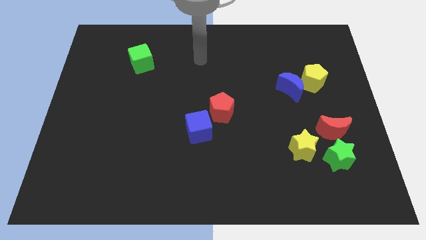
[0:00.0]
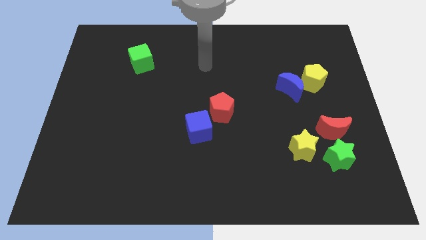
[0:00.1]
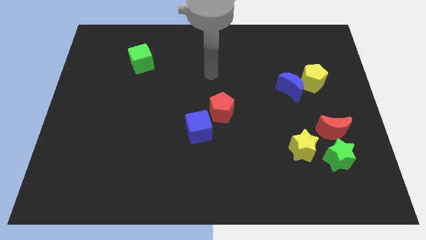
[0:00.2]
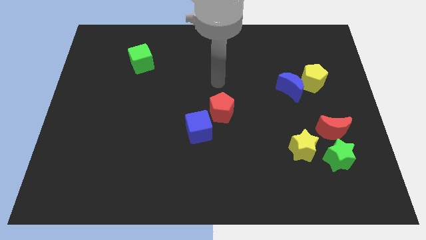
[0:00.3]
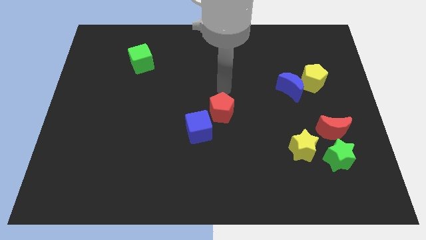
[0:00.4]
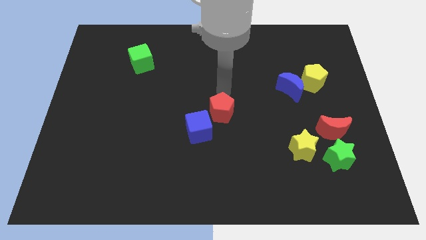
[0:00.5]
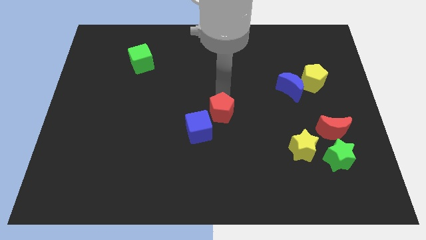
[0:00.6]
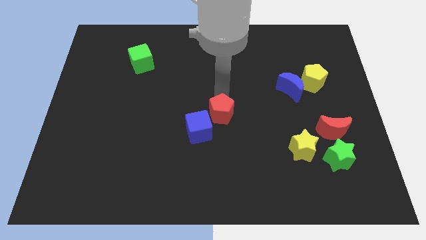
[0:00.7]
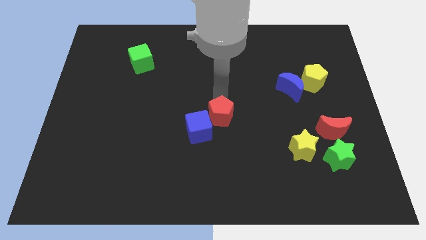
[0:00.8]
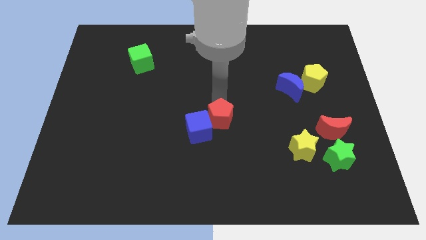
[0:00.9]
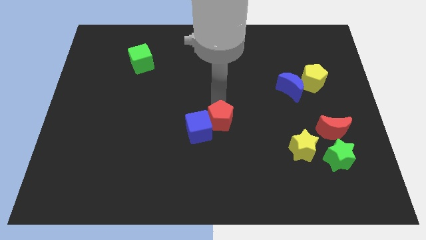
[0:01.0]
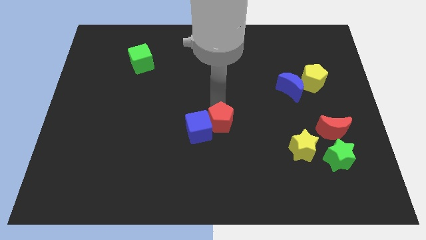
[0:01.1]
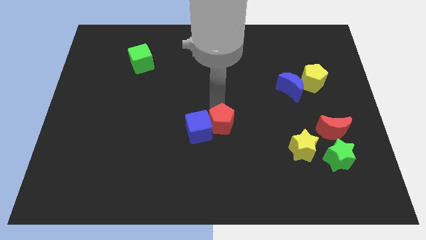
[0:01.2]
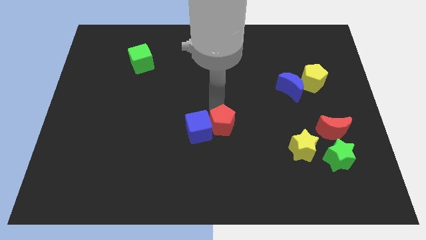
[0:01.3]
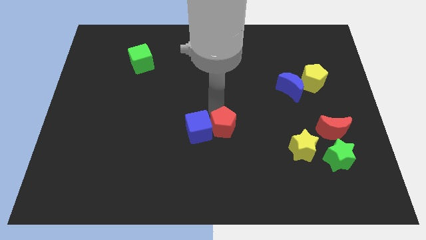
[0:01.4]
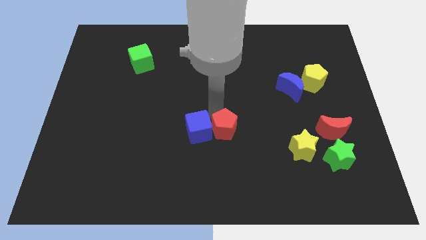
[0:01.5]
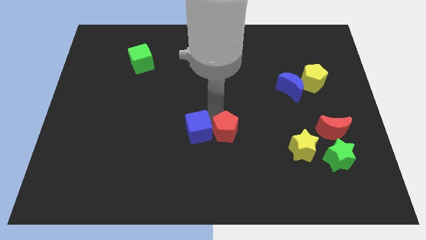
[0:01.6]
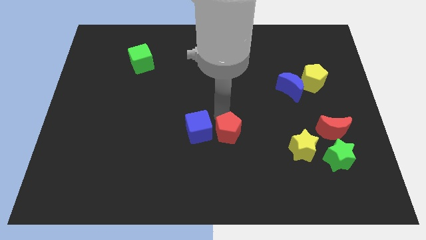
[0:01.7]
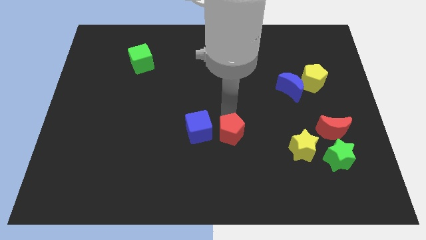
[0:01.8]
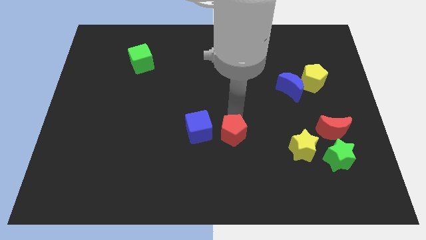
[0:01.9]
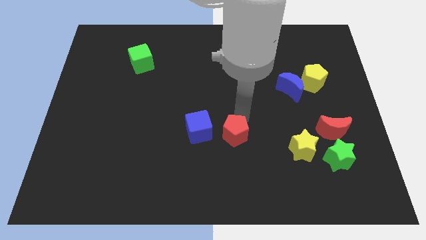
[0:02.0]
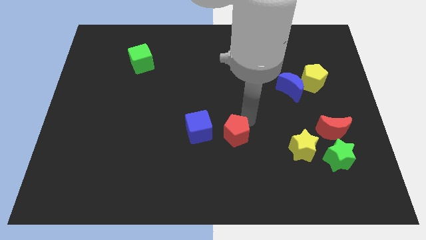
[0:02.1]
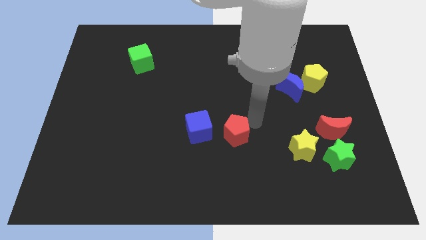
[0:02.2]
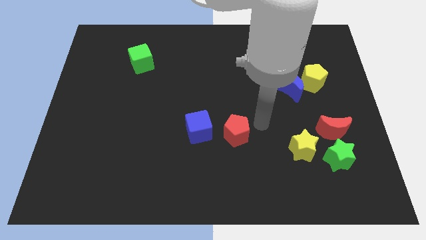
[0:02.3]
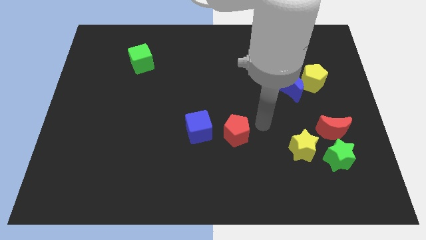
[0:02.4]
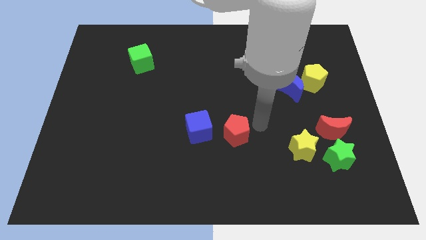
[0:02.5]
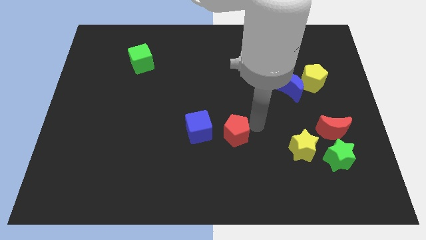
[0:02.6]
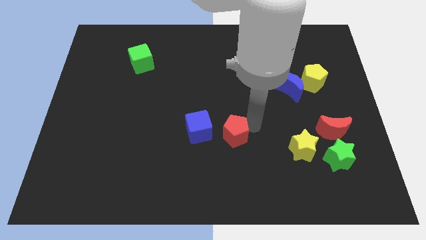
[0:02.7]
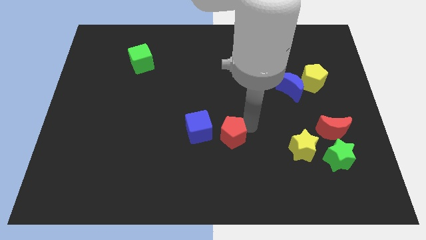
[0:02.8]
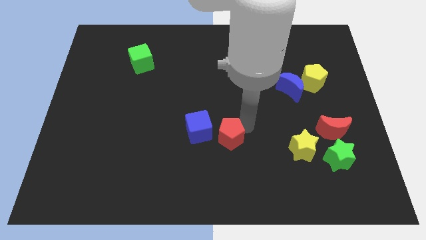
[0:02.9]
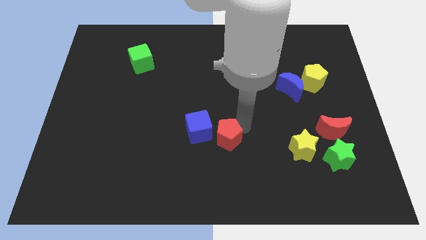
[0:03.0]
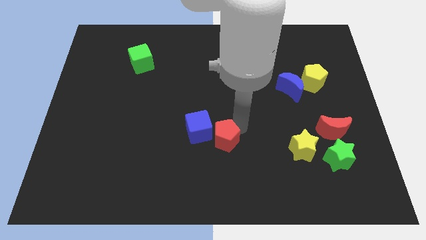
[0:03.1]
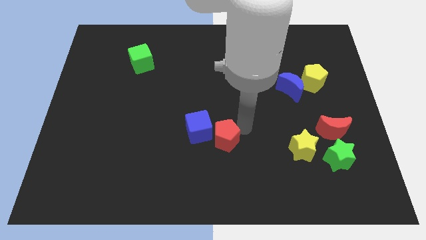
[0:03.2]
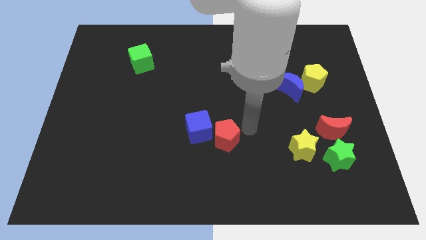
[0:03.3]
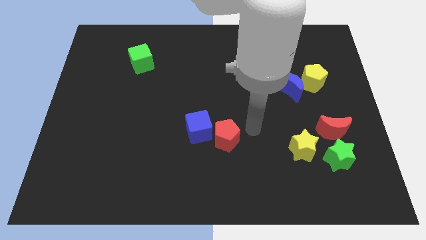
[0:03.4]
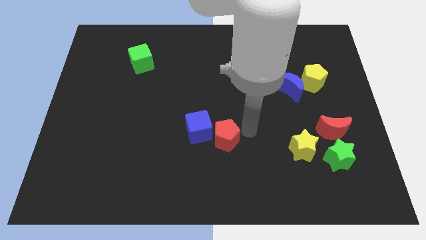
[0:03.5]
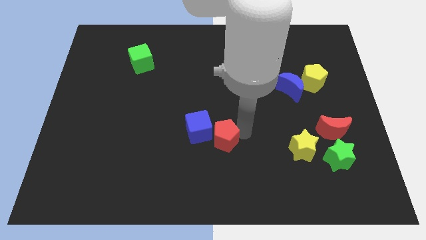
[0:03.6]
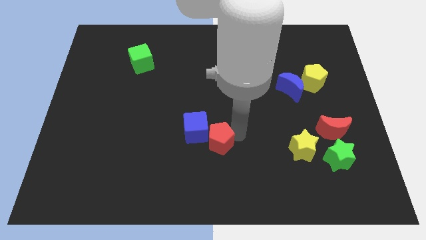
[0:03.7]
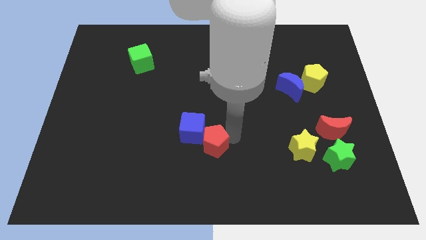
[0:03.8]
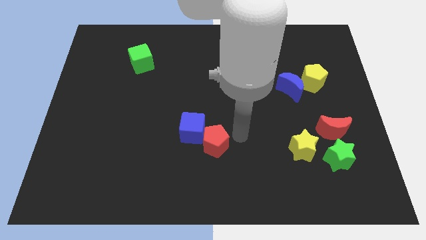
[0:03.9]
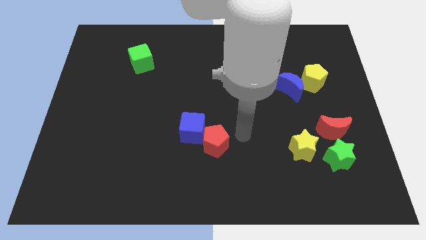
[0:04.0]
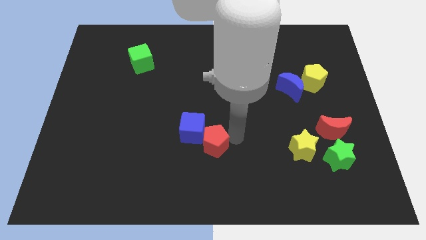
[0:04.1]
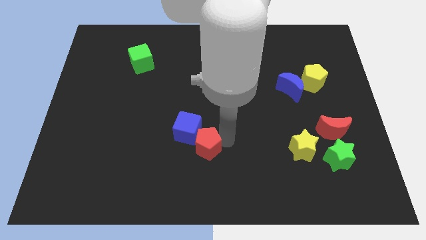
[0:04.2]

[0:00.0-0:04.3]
slightly move the red pentagon diagonally downwards and left

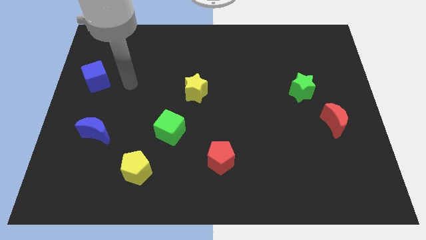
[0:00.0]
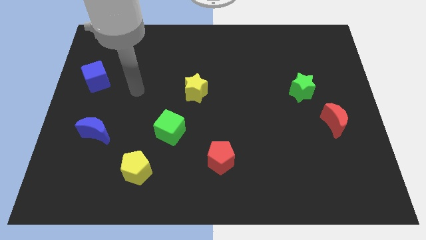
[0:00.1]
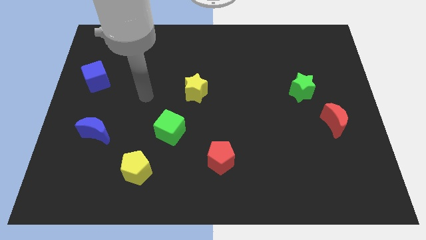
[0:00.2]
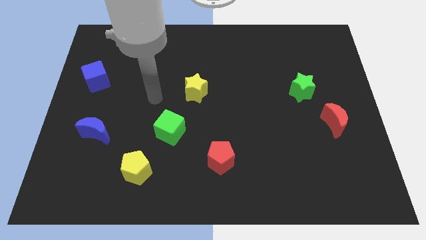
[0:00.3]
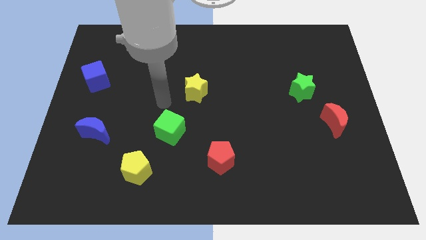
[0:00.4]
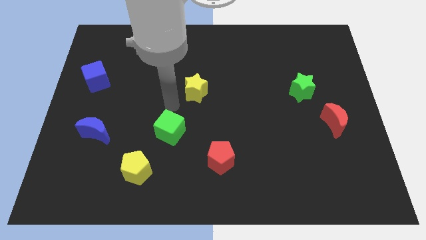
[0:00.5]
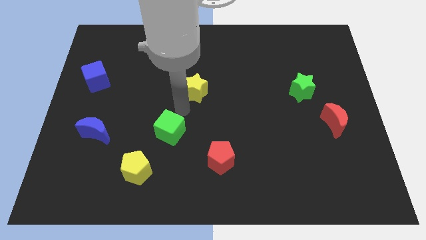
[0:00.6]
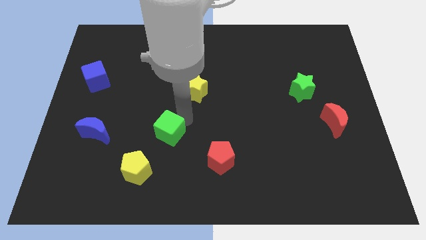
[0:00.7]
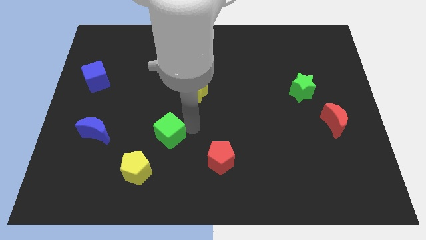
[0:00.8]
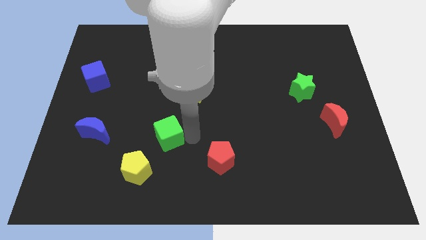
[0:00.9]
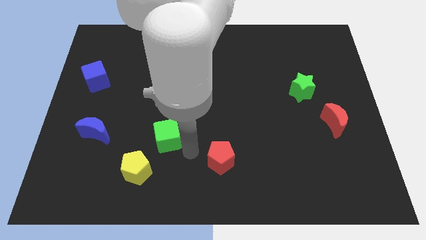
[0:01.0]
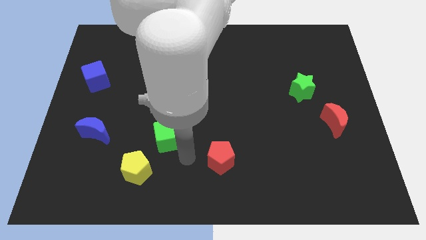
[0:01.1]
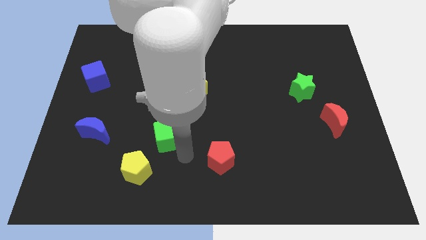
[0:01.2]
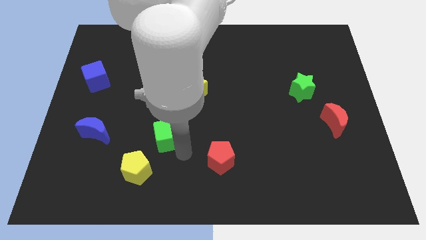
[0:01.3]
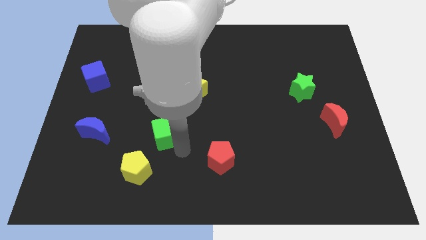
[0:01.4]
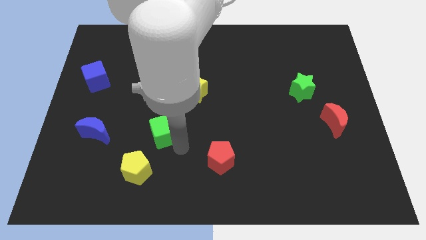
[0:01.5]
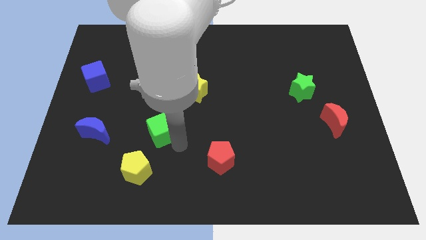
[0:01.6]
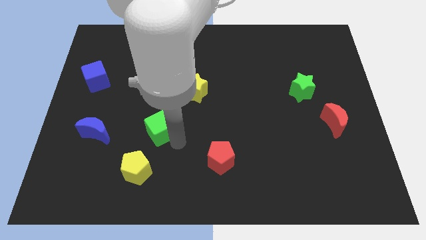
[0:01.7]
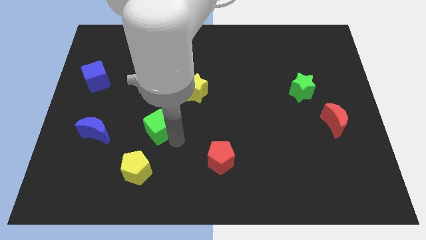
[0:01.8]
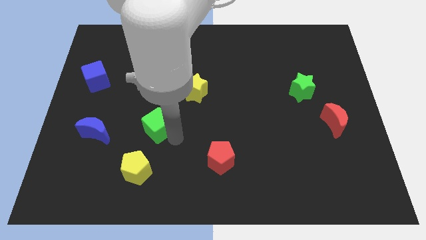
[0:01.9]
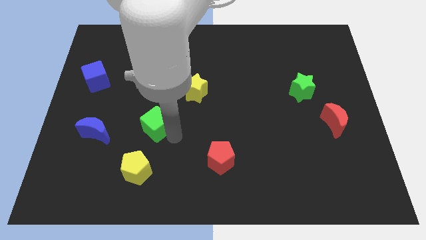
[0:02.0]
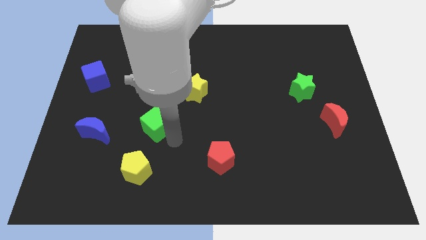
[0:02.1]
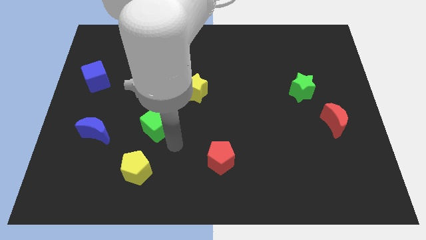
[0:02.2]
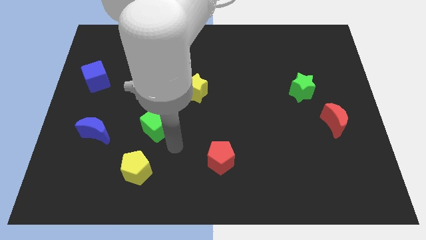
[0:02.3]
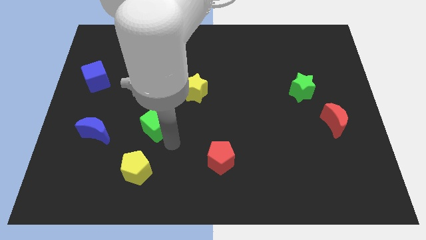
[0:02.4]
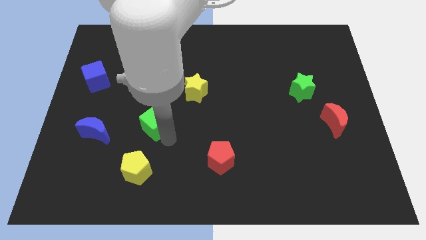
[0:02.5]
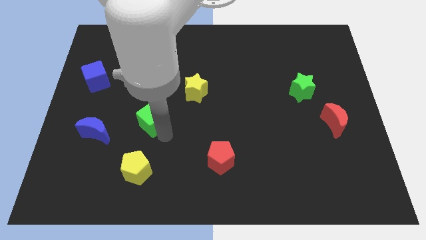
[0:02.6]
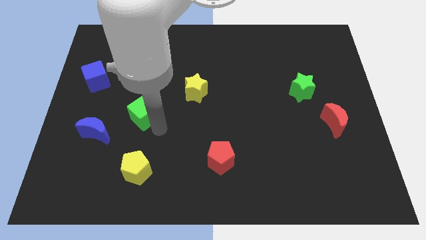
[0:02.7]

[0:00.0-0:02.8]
move the green cube upwards and left slightly

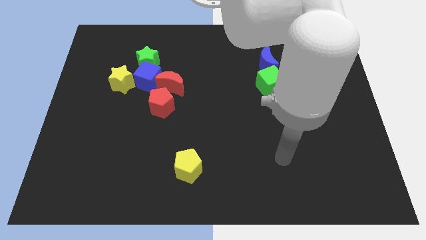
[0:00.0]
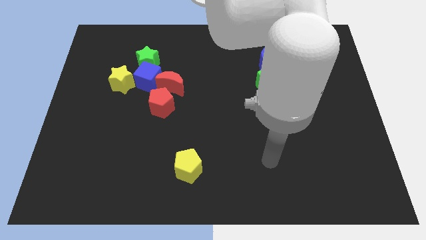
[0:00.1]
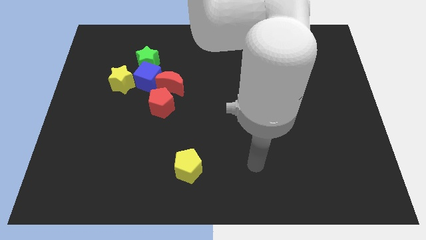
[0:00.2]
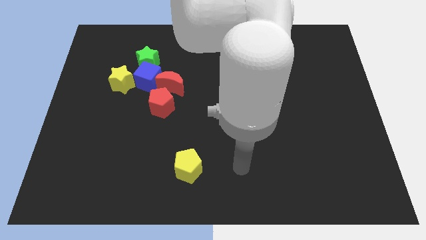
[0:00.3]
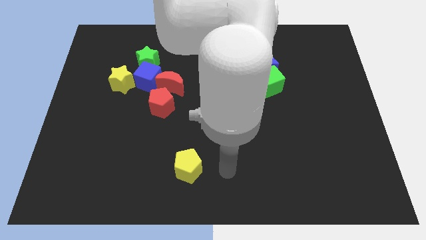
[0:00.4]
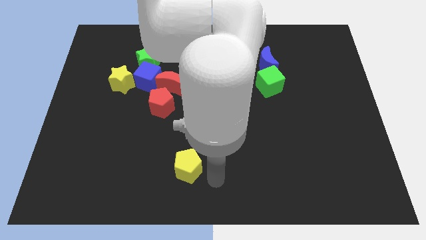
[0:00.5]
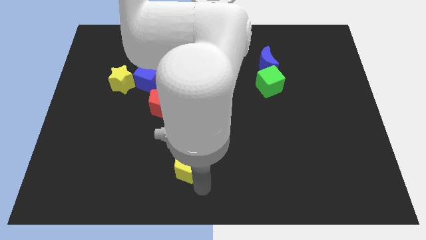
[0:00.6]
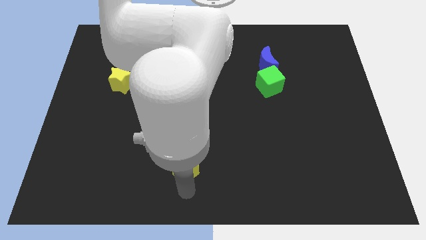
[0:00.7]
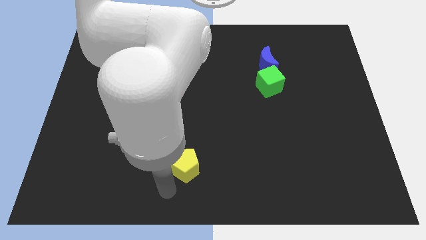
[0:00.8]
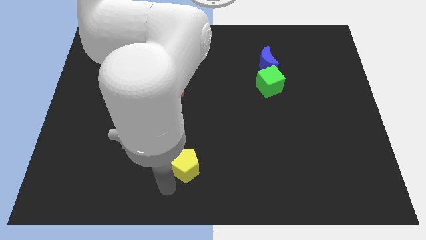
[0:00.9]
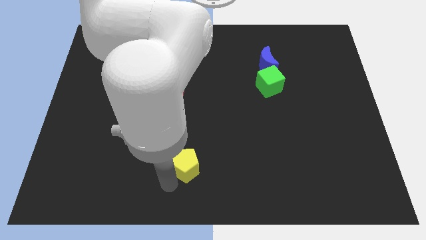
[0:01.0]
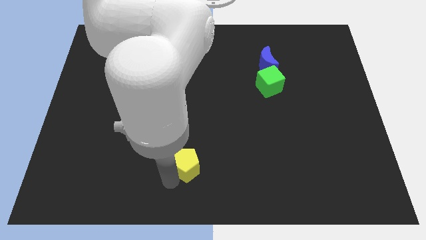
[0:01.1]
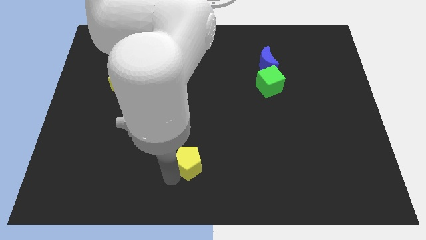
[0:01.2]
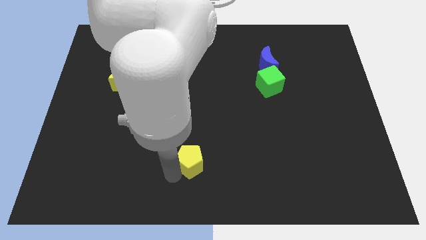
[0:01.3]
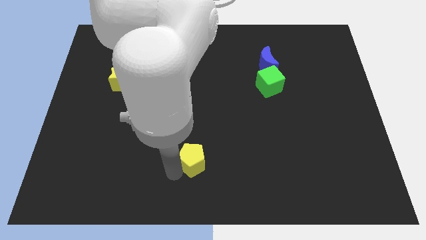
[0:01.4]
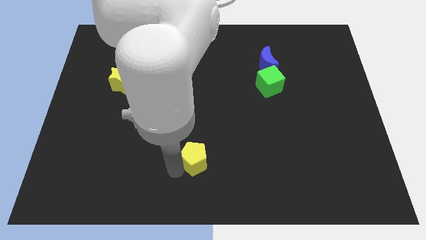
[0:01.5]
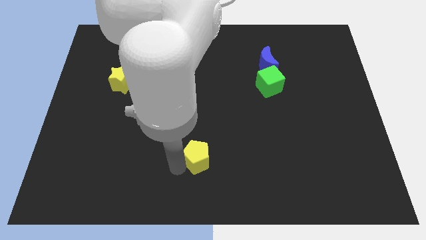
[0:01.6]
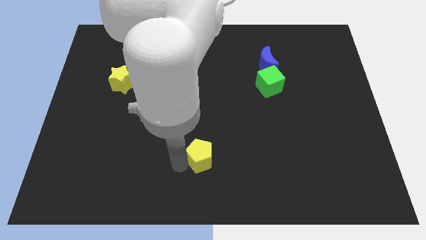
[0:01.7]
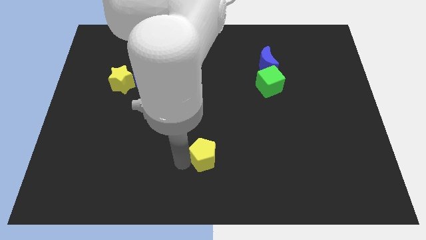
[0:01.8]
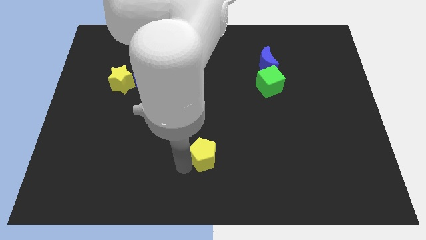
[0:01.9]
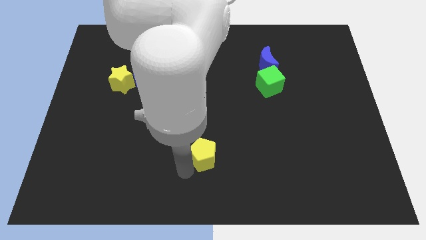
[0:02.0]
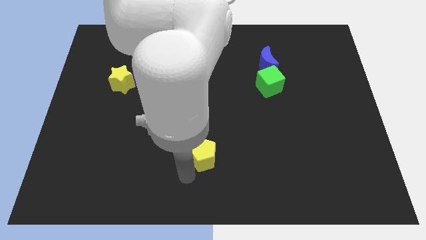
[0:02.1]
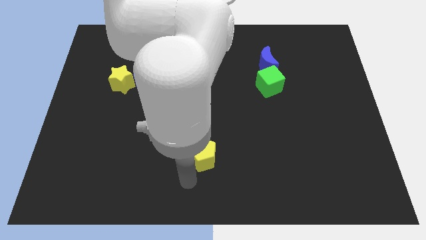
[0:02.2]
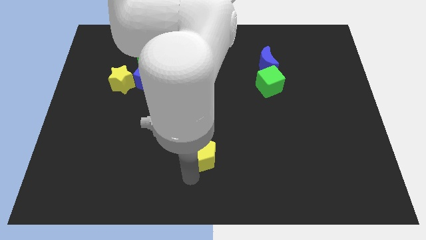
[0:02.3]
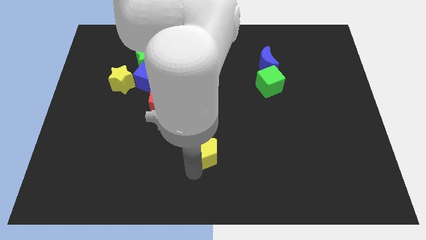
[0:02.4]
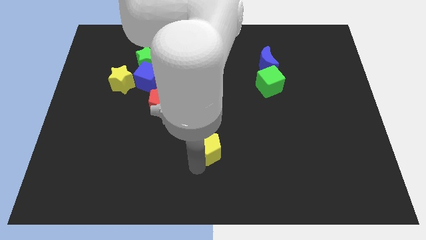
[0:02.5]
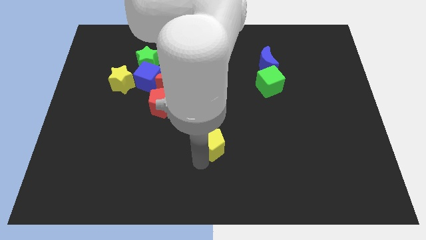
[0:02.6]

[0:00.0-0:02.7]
move the yellow pentagon upwards and right slightly
